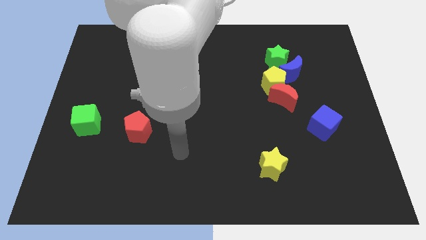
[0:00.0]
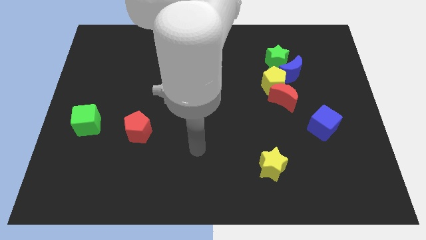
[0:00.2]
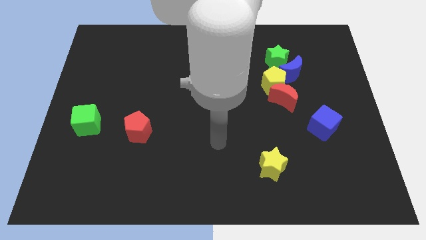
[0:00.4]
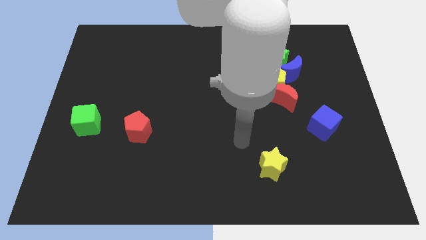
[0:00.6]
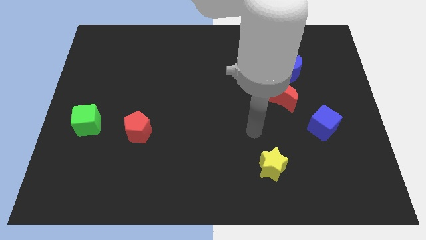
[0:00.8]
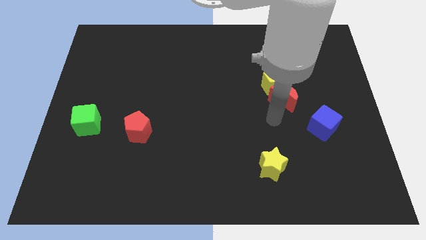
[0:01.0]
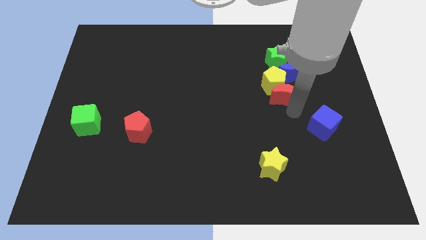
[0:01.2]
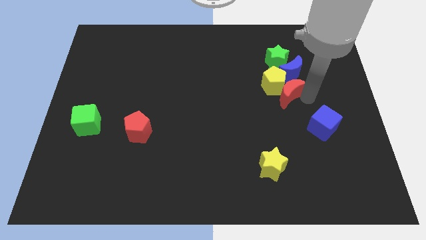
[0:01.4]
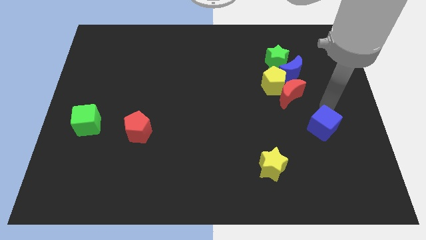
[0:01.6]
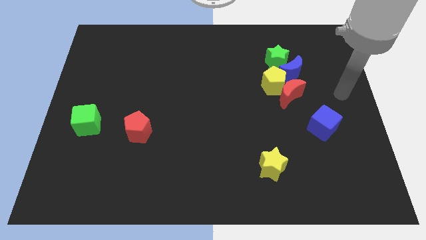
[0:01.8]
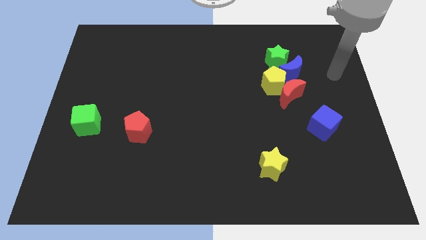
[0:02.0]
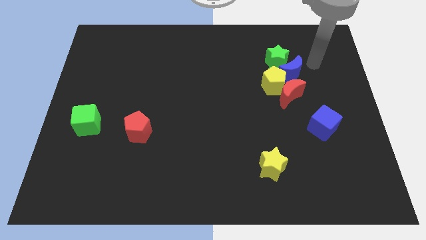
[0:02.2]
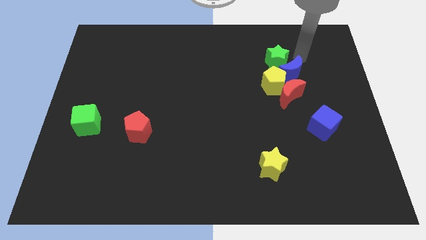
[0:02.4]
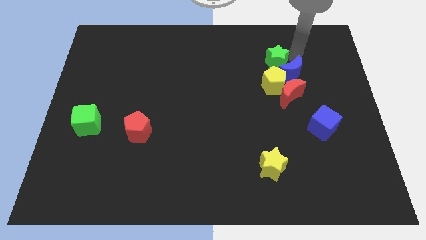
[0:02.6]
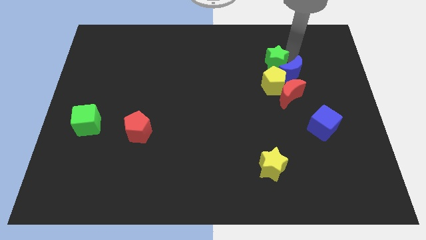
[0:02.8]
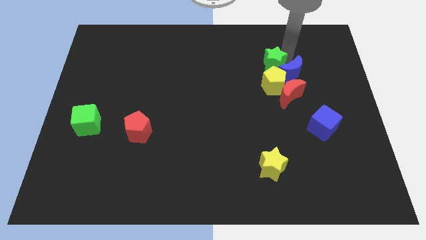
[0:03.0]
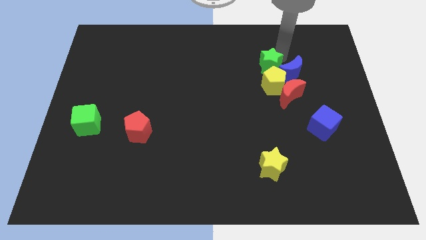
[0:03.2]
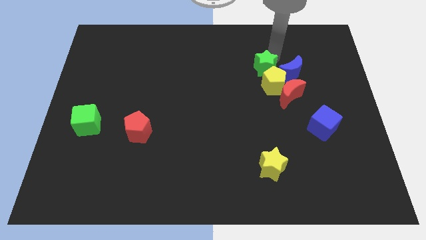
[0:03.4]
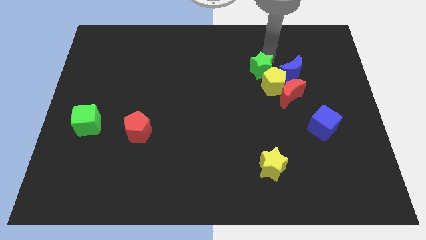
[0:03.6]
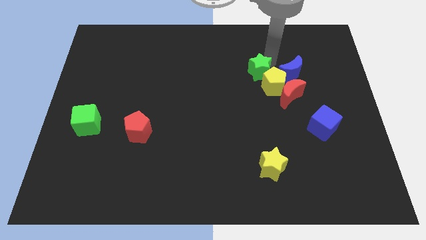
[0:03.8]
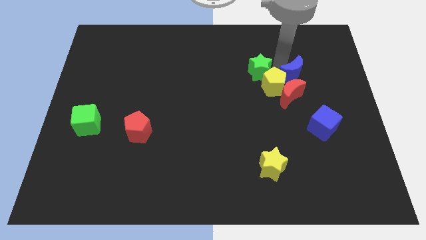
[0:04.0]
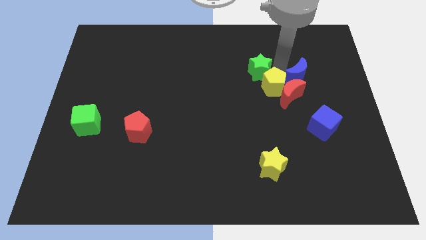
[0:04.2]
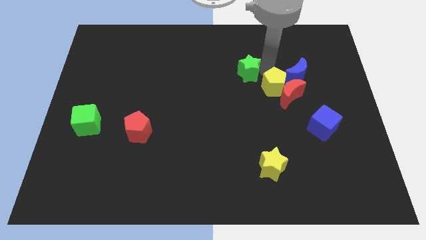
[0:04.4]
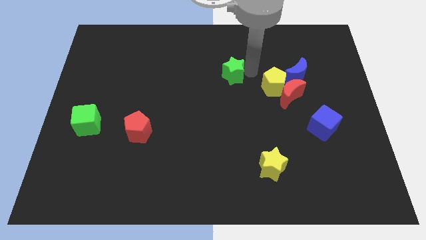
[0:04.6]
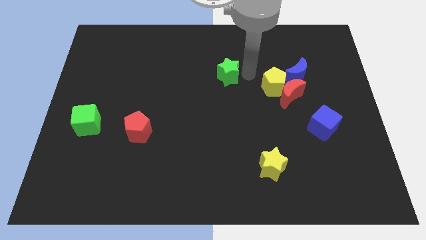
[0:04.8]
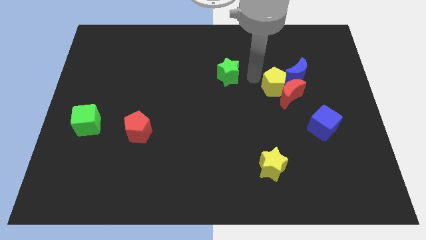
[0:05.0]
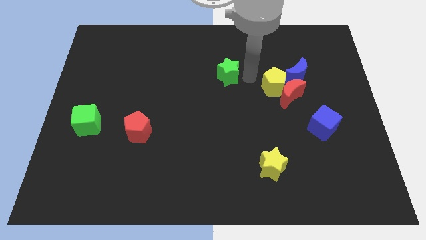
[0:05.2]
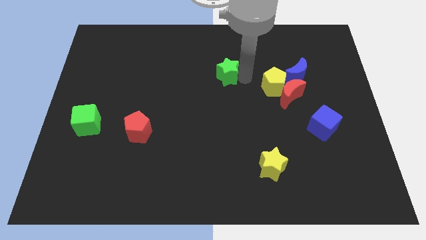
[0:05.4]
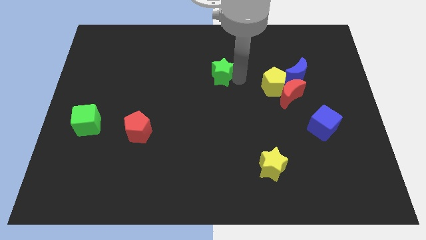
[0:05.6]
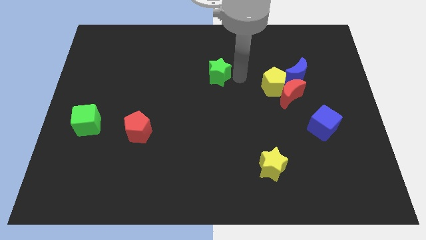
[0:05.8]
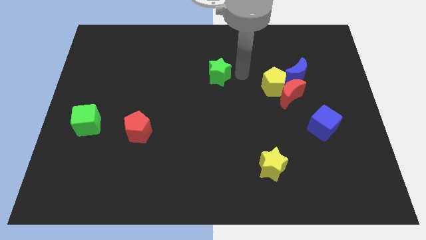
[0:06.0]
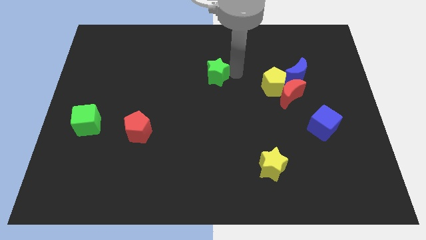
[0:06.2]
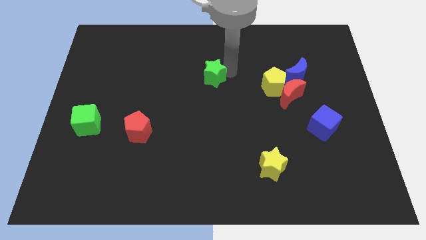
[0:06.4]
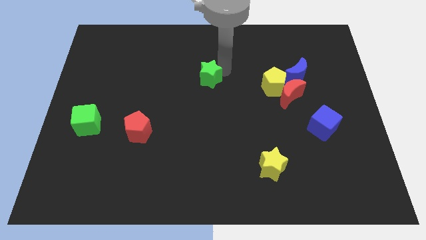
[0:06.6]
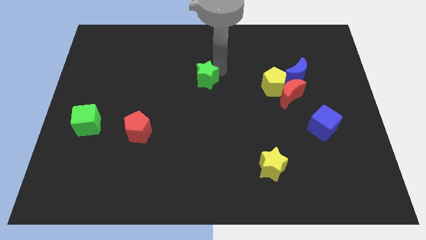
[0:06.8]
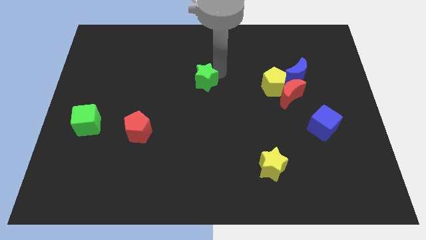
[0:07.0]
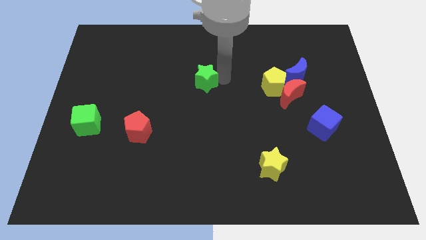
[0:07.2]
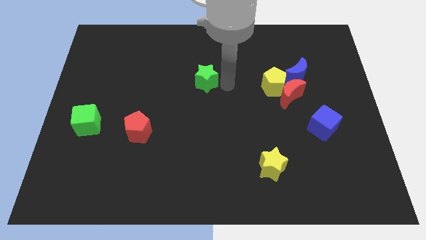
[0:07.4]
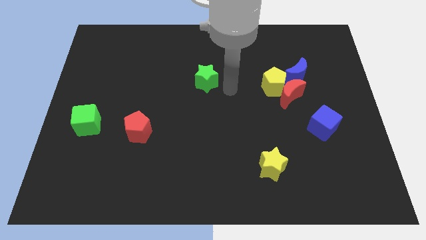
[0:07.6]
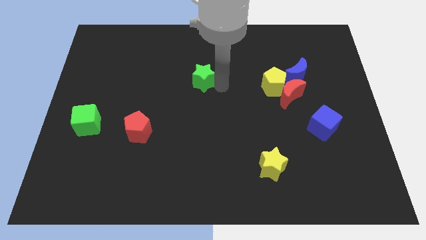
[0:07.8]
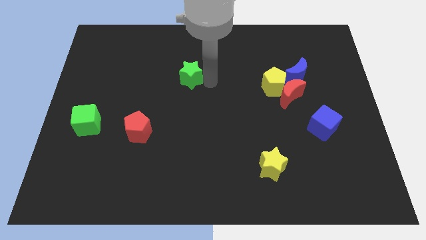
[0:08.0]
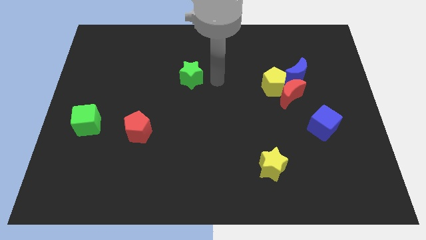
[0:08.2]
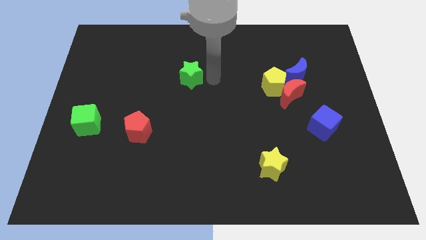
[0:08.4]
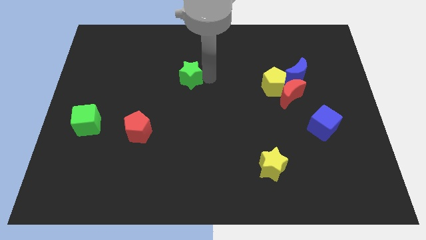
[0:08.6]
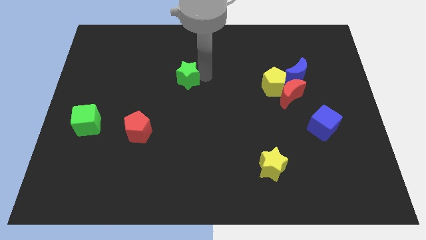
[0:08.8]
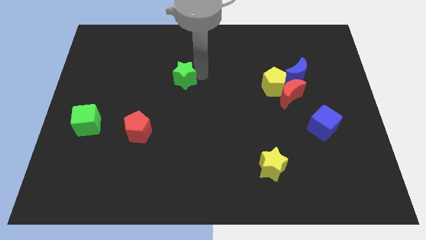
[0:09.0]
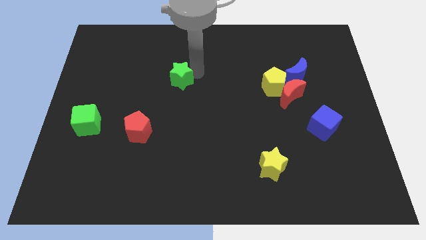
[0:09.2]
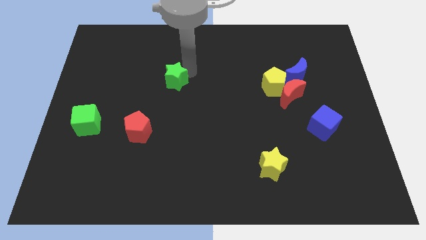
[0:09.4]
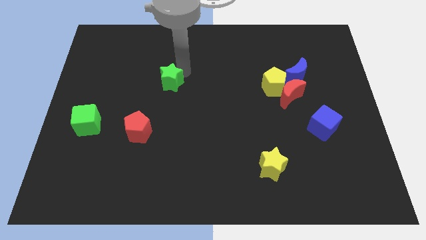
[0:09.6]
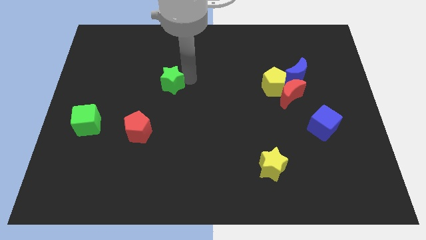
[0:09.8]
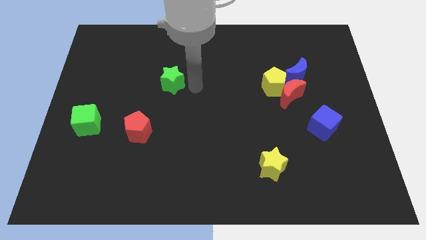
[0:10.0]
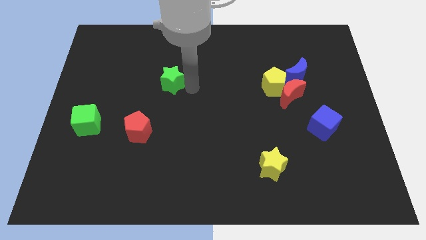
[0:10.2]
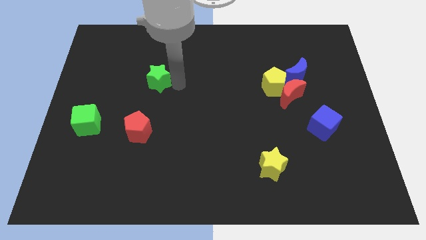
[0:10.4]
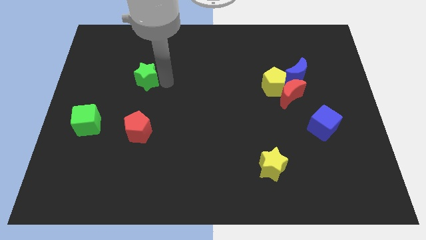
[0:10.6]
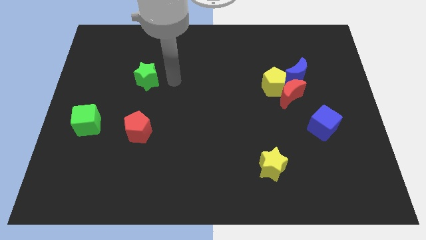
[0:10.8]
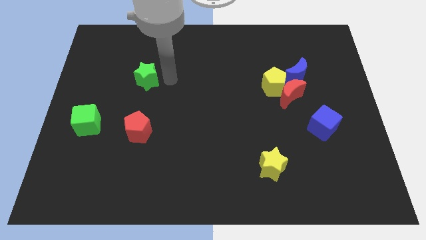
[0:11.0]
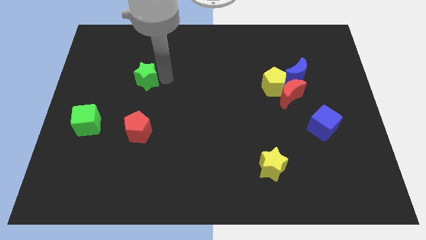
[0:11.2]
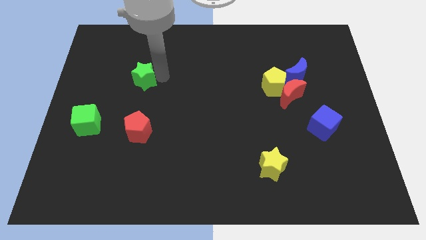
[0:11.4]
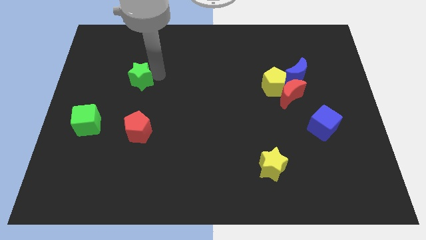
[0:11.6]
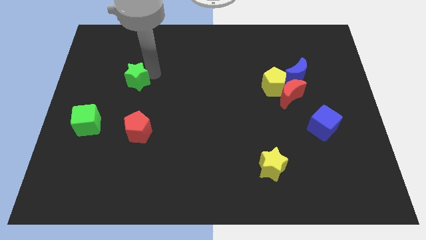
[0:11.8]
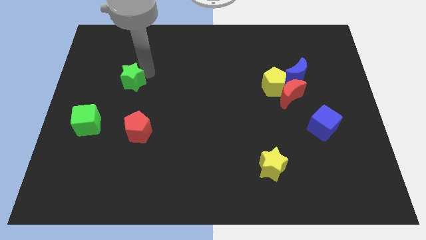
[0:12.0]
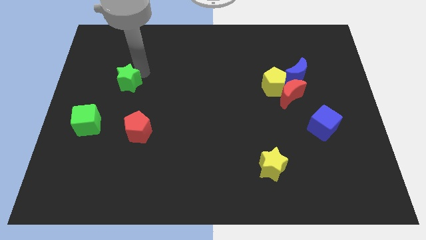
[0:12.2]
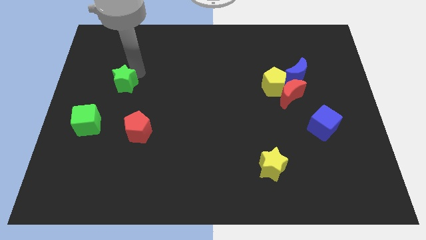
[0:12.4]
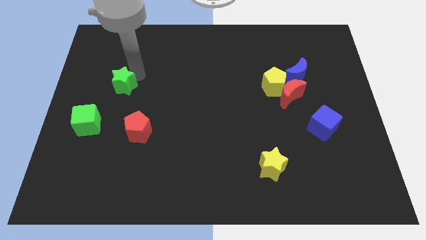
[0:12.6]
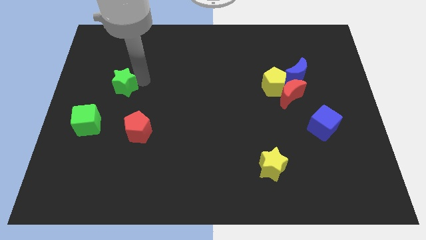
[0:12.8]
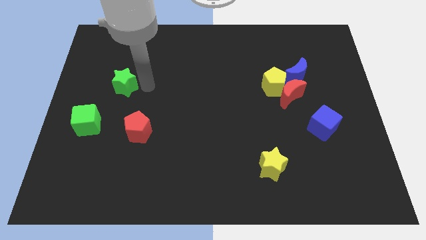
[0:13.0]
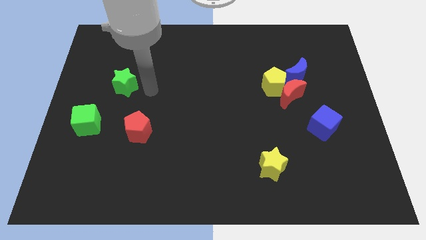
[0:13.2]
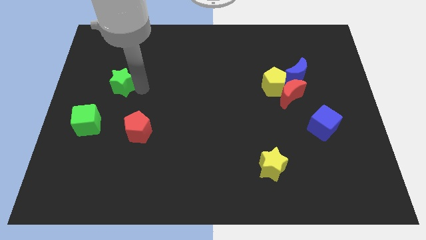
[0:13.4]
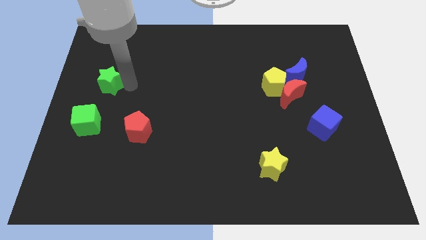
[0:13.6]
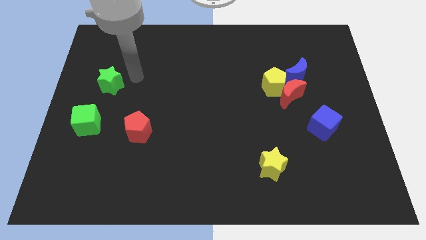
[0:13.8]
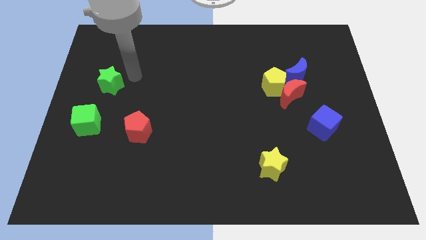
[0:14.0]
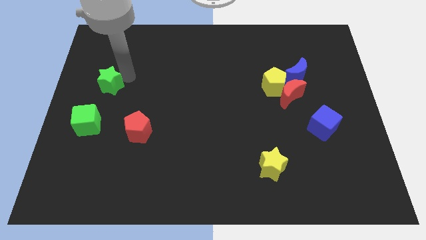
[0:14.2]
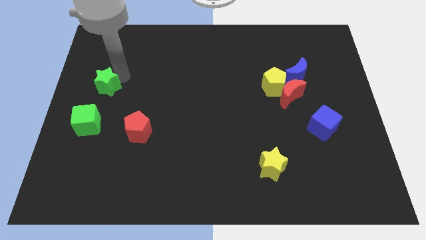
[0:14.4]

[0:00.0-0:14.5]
push the green star to the center left

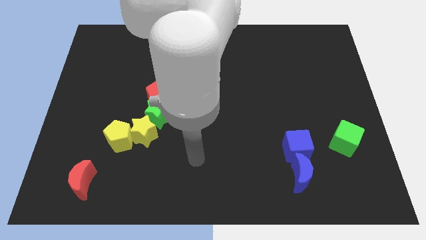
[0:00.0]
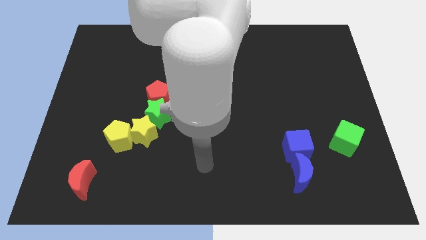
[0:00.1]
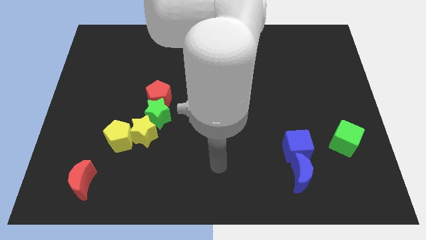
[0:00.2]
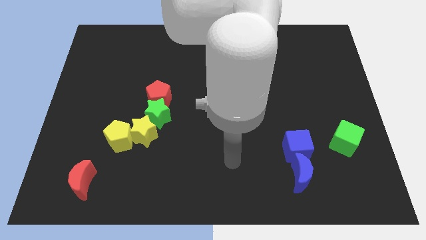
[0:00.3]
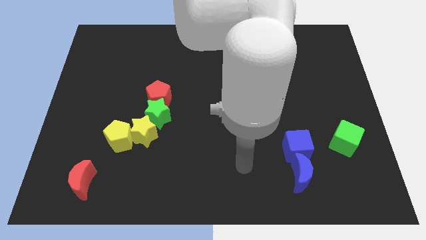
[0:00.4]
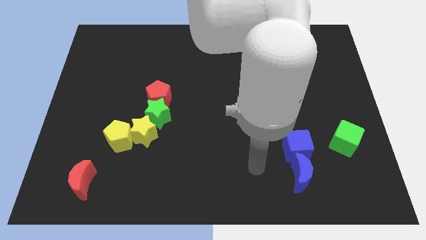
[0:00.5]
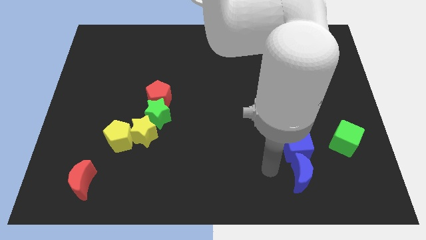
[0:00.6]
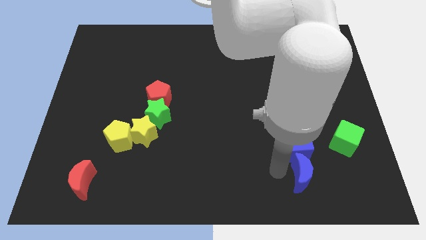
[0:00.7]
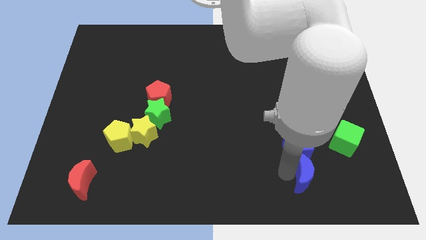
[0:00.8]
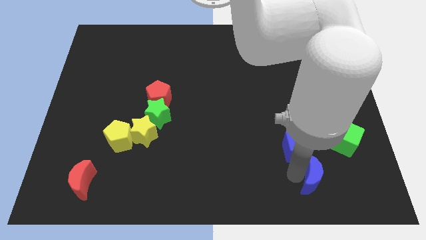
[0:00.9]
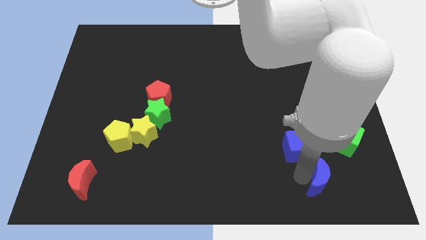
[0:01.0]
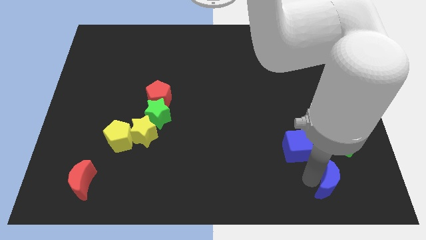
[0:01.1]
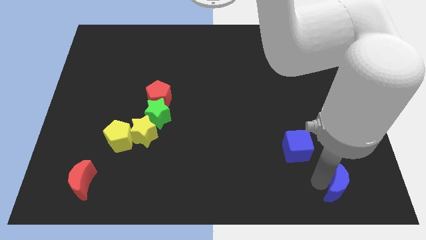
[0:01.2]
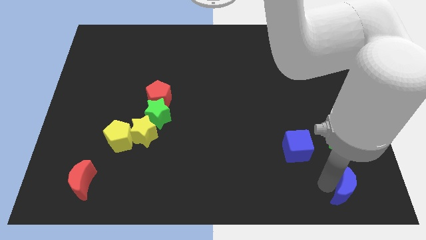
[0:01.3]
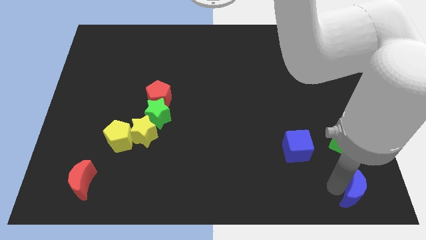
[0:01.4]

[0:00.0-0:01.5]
put the blue moon to the bottom right
